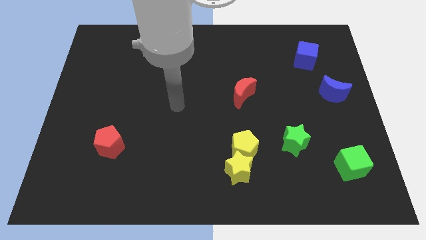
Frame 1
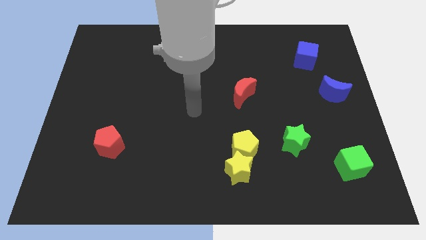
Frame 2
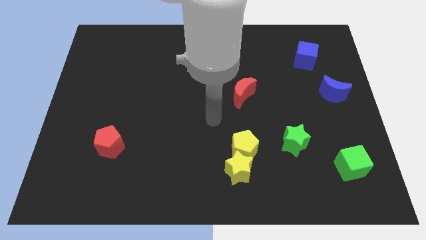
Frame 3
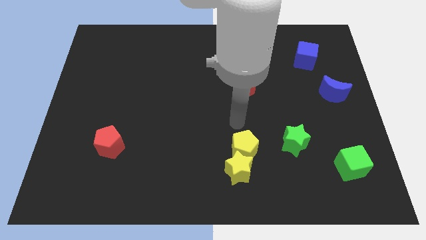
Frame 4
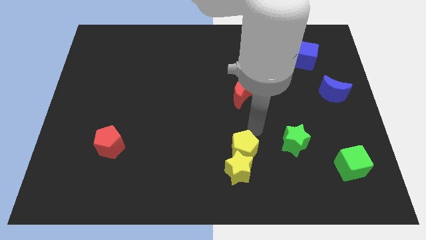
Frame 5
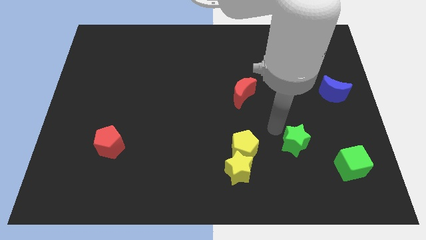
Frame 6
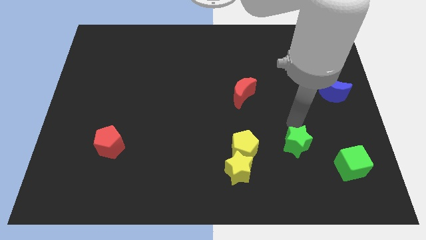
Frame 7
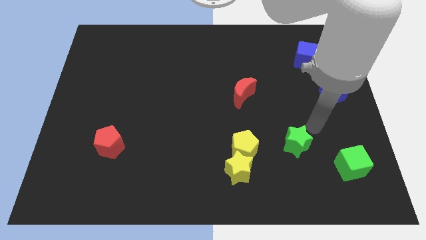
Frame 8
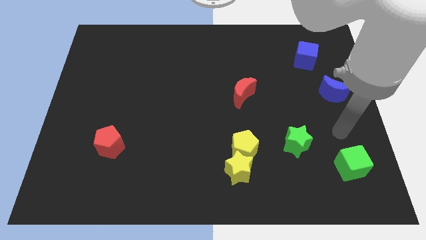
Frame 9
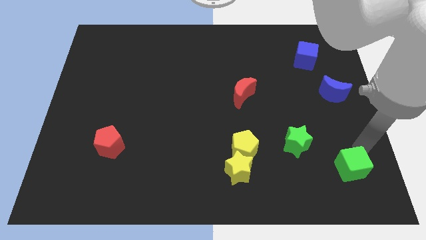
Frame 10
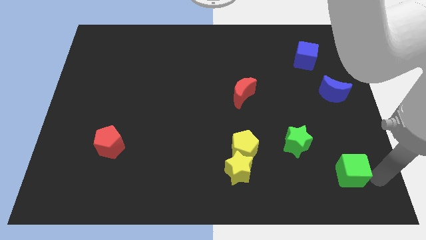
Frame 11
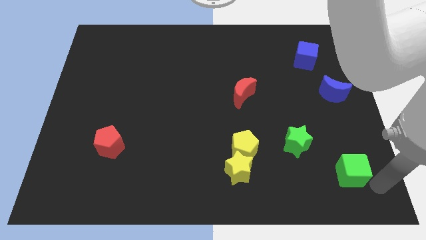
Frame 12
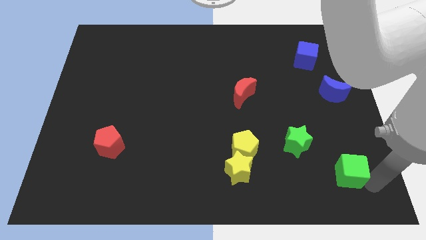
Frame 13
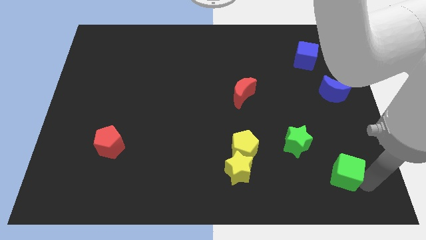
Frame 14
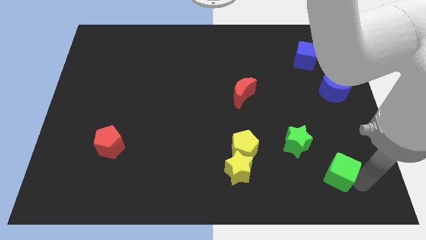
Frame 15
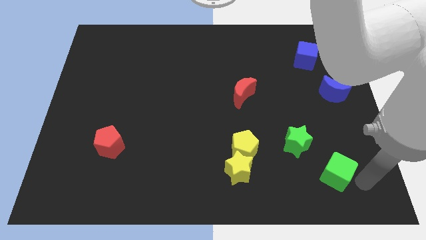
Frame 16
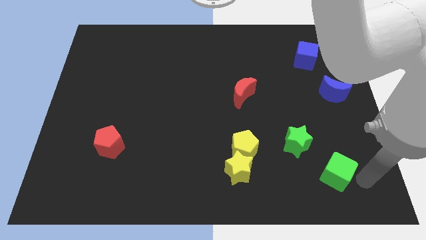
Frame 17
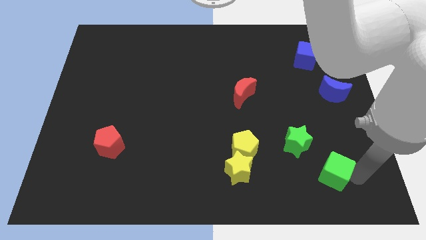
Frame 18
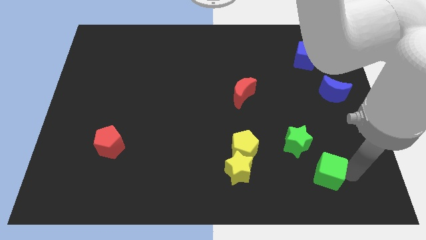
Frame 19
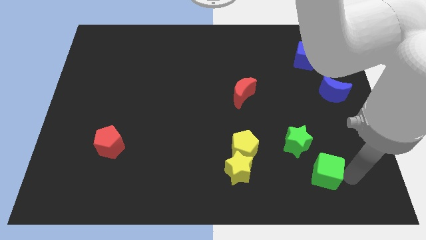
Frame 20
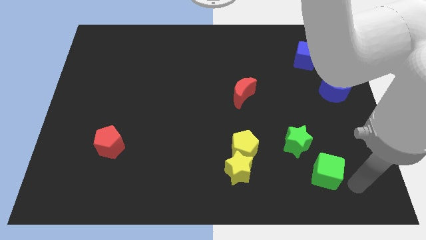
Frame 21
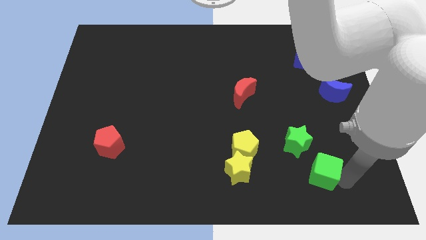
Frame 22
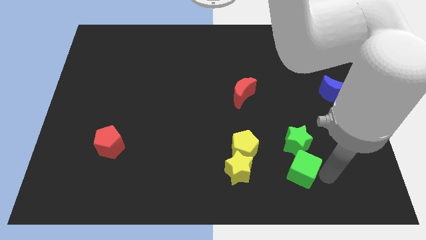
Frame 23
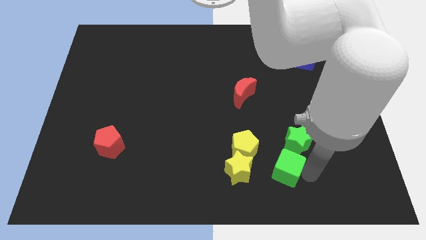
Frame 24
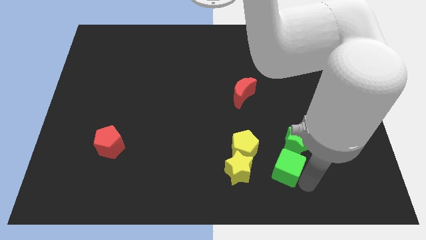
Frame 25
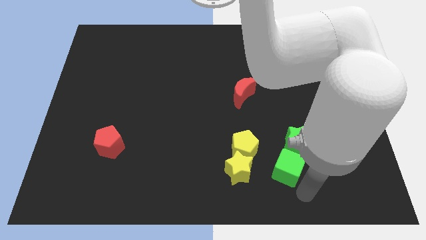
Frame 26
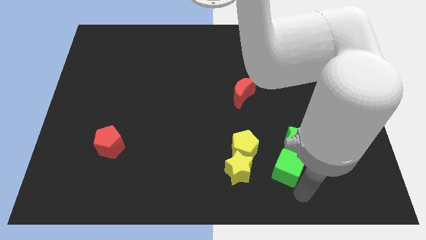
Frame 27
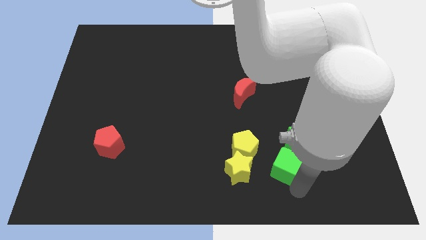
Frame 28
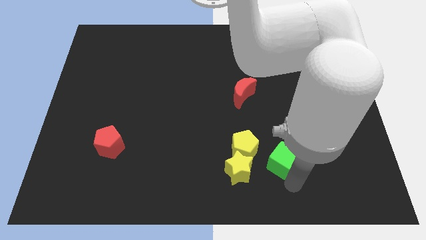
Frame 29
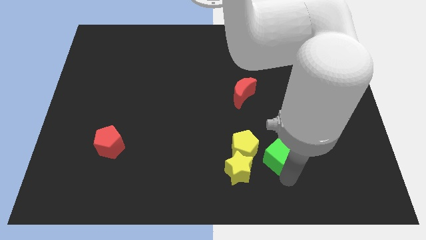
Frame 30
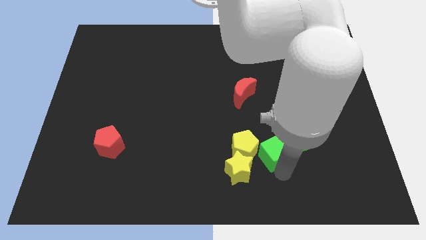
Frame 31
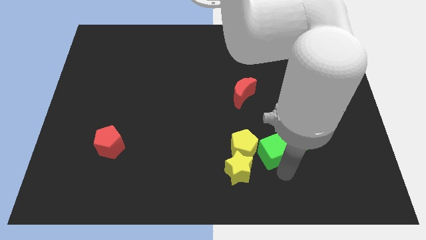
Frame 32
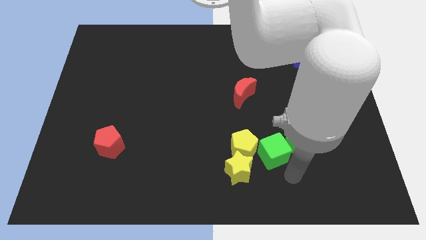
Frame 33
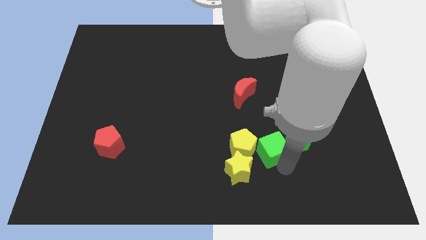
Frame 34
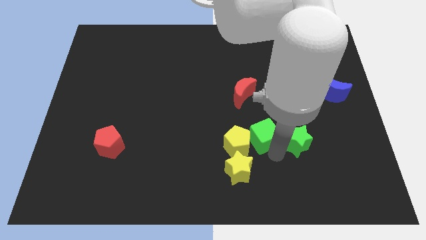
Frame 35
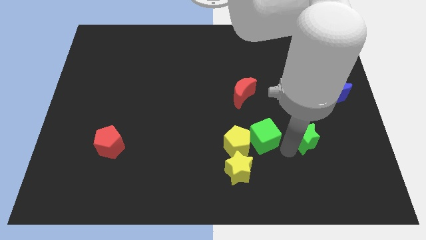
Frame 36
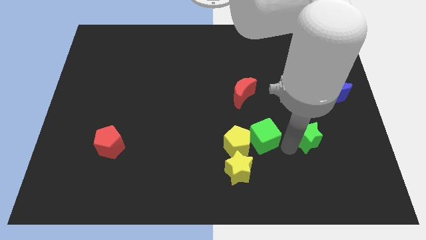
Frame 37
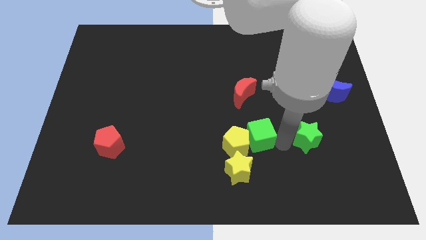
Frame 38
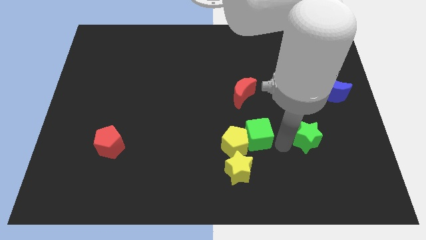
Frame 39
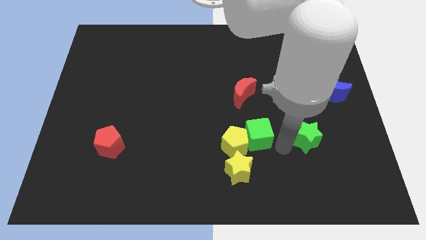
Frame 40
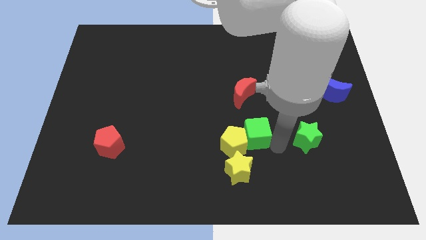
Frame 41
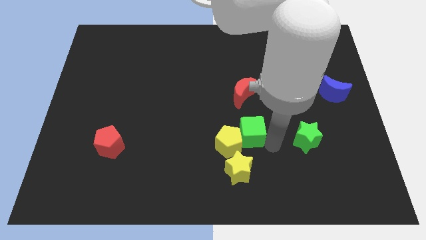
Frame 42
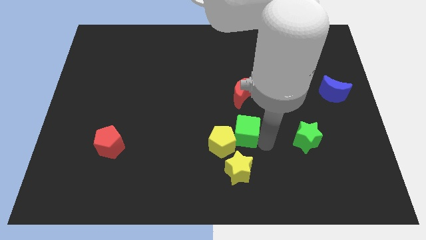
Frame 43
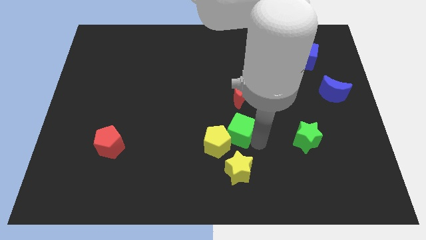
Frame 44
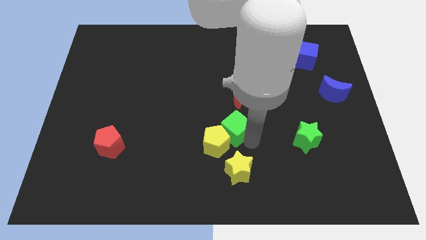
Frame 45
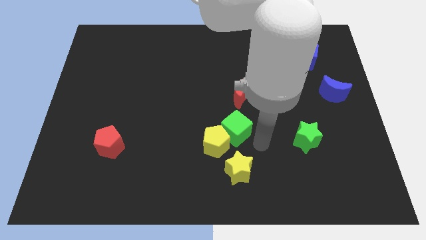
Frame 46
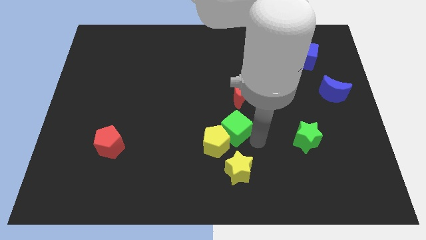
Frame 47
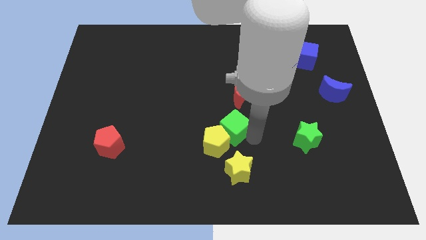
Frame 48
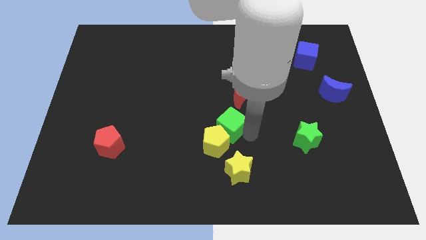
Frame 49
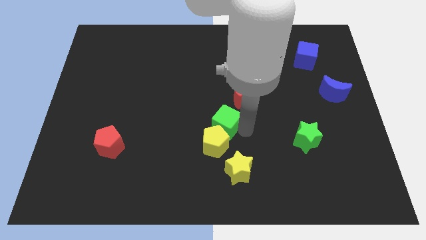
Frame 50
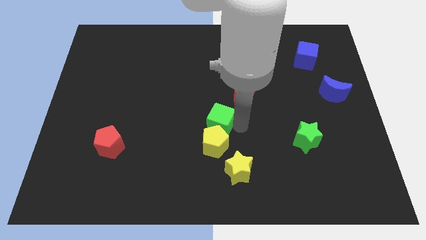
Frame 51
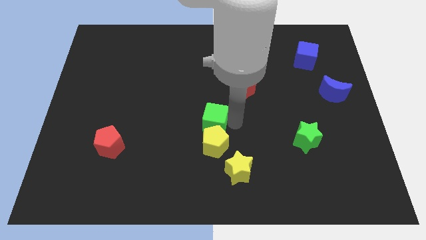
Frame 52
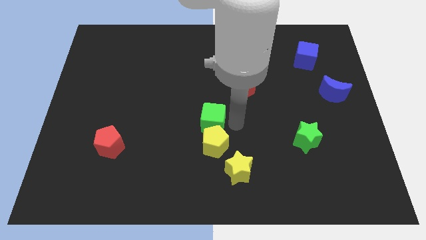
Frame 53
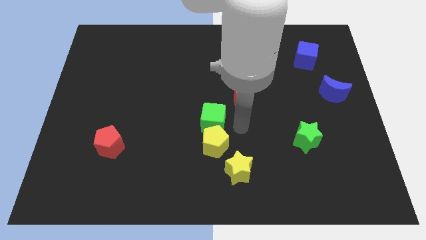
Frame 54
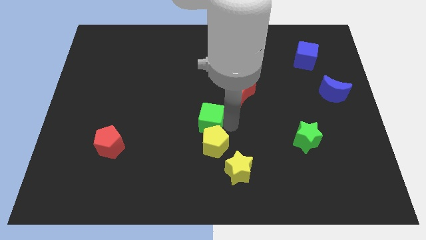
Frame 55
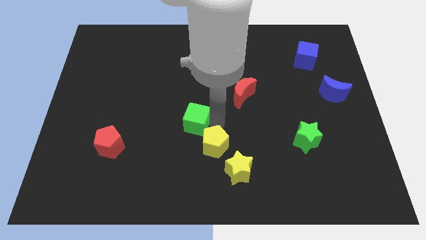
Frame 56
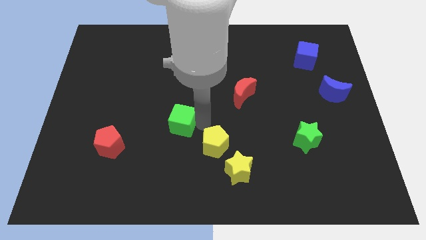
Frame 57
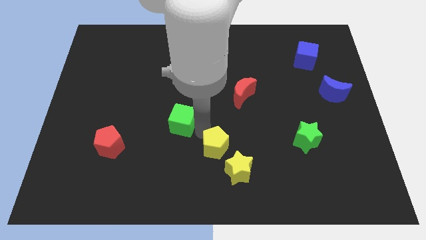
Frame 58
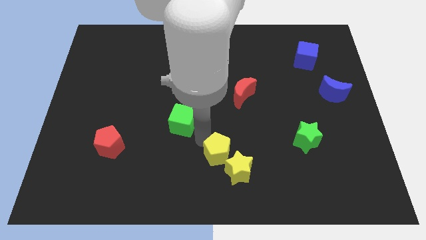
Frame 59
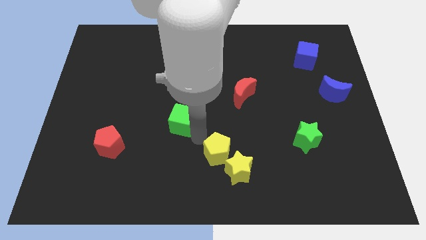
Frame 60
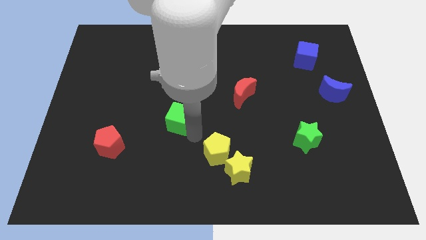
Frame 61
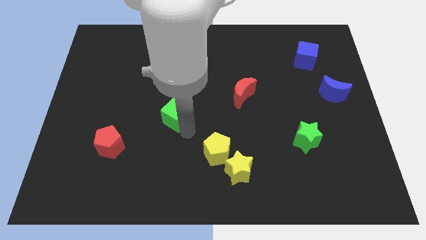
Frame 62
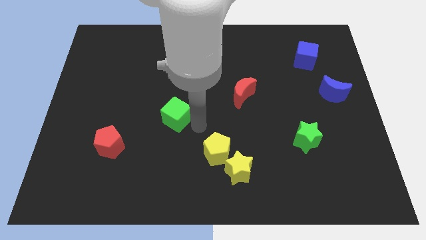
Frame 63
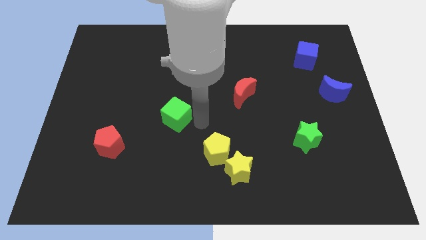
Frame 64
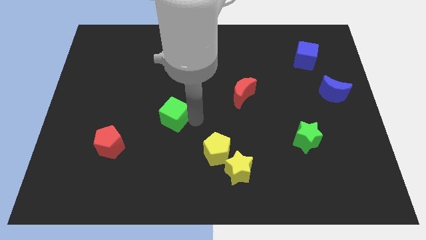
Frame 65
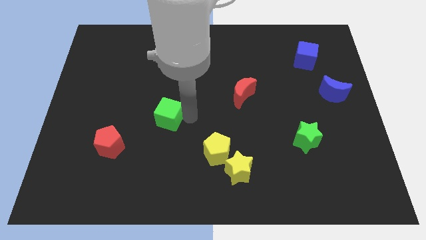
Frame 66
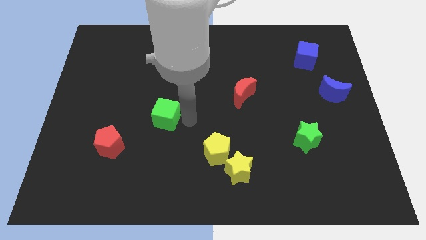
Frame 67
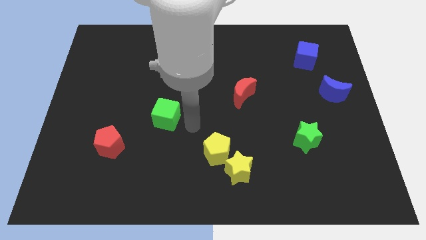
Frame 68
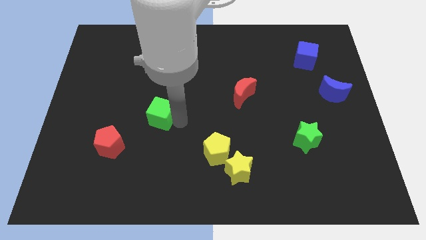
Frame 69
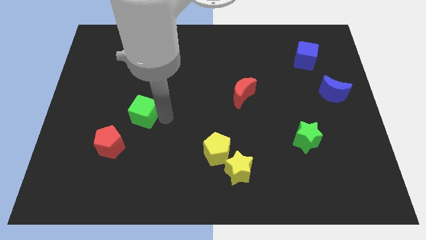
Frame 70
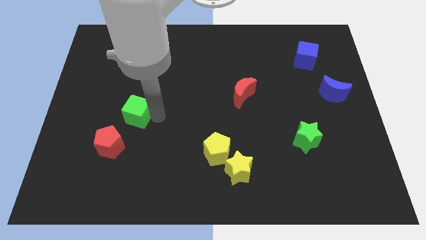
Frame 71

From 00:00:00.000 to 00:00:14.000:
put the green cube above the red pentagon

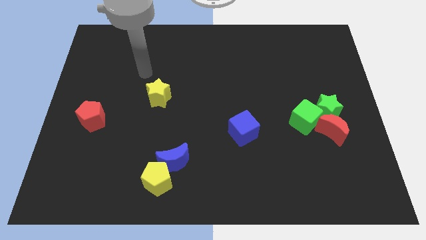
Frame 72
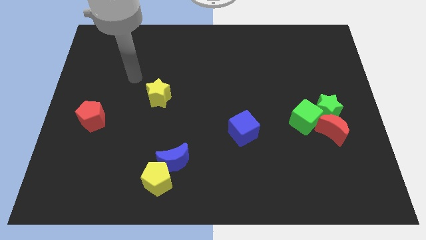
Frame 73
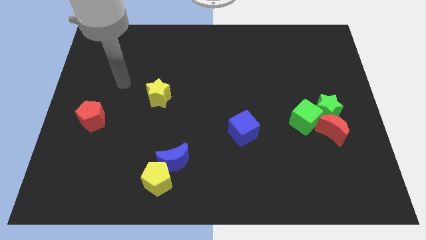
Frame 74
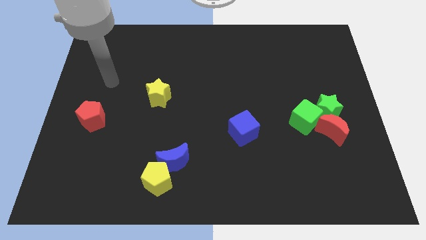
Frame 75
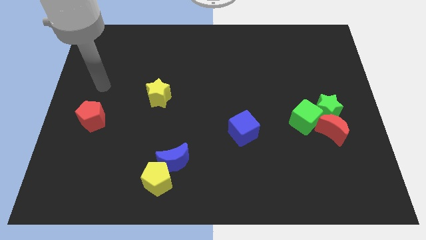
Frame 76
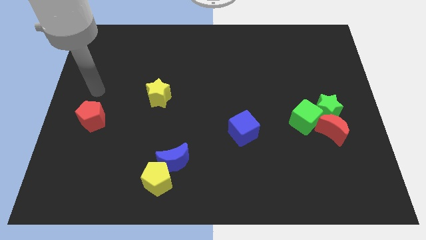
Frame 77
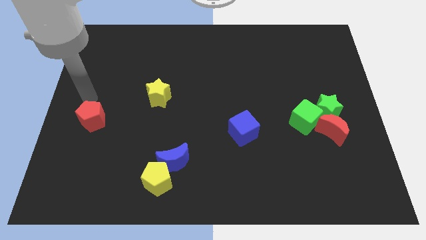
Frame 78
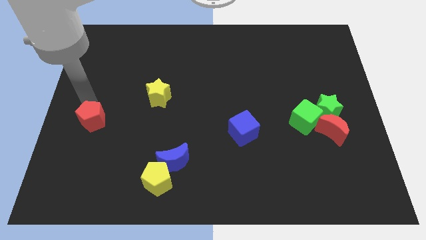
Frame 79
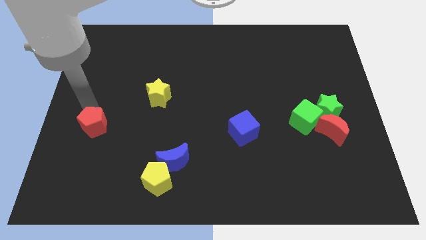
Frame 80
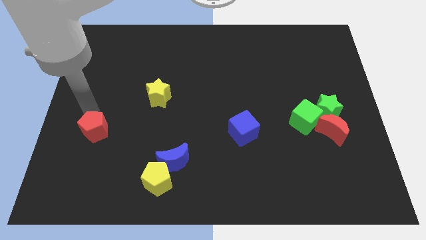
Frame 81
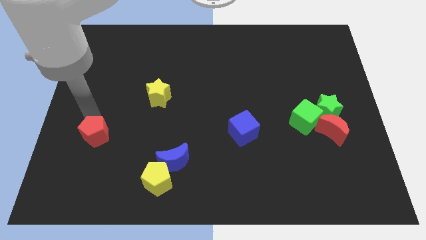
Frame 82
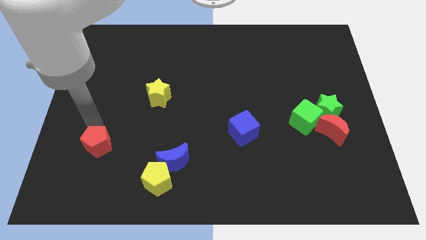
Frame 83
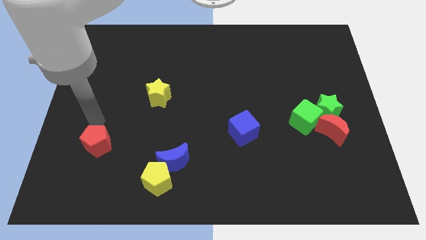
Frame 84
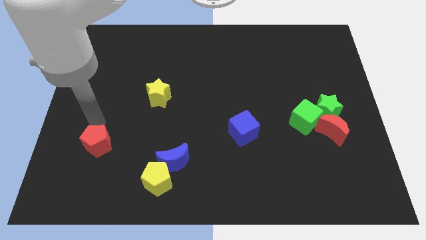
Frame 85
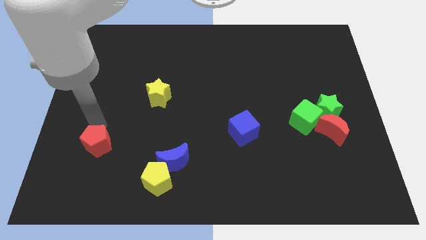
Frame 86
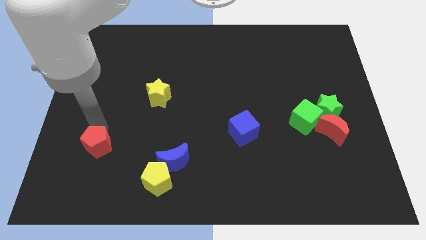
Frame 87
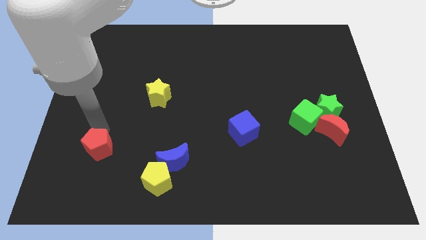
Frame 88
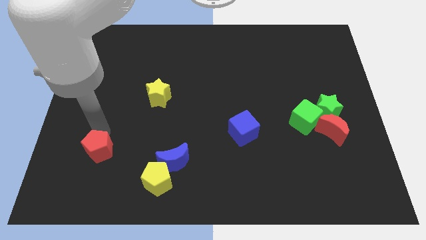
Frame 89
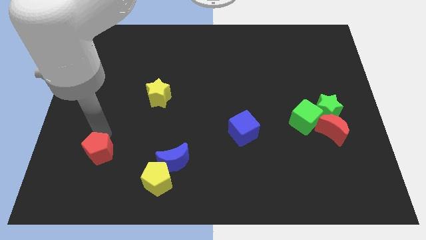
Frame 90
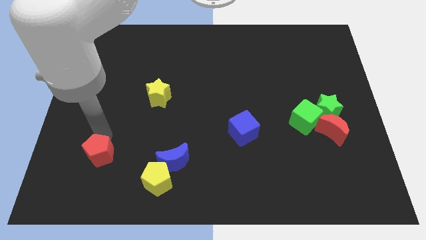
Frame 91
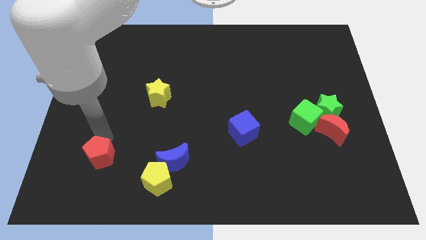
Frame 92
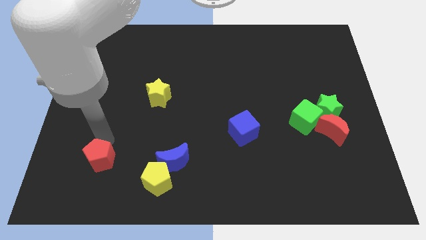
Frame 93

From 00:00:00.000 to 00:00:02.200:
move the red pentagon left of the yellow pentagon
